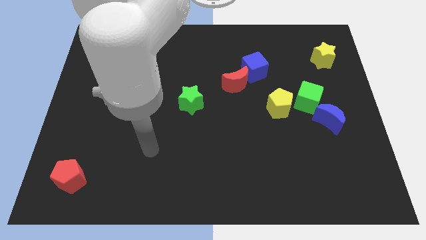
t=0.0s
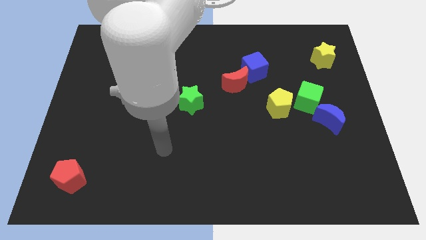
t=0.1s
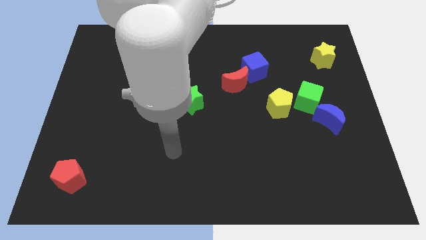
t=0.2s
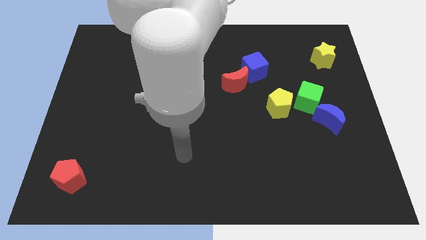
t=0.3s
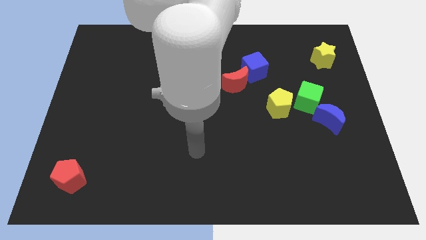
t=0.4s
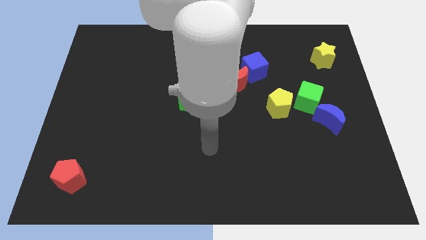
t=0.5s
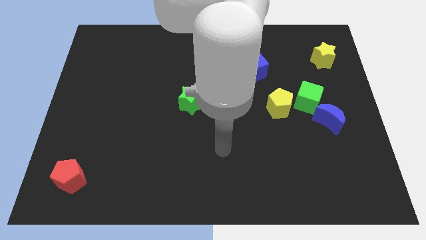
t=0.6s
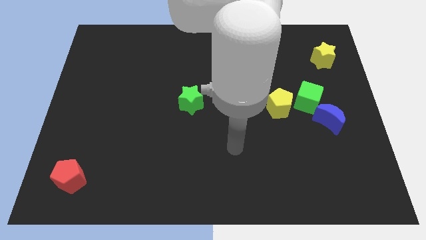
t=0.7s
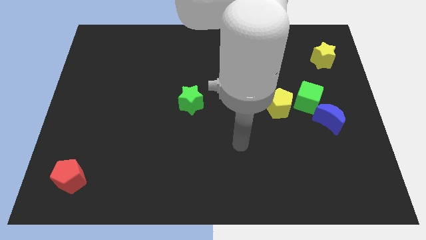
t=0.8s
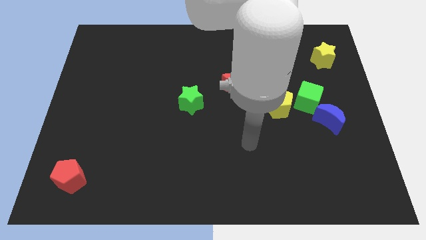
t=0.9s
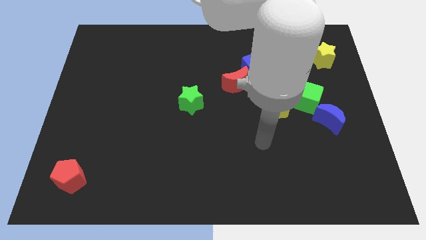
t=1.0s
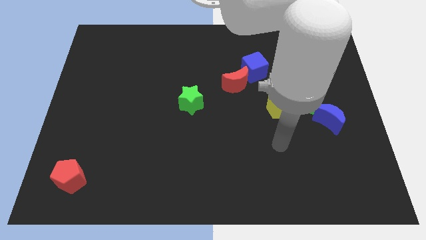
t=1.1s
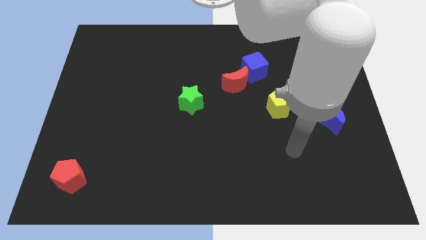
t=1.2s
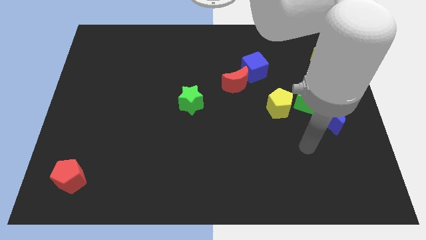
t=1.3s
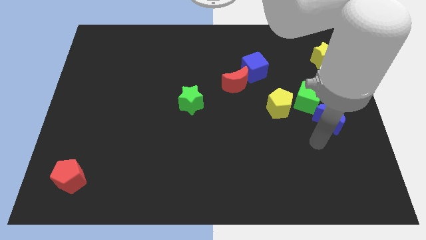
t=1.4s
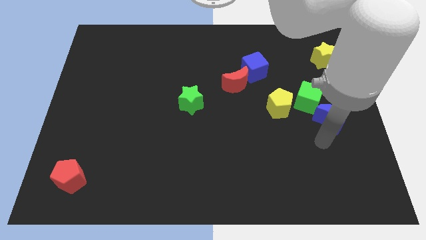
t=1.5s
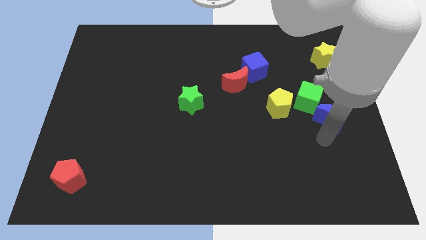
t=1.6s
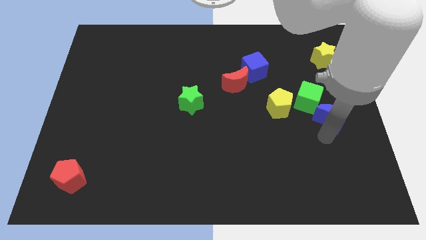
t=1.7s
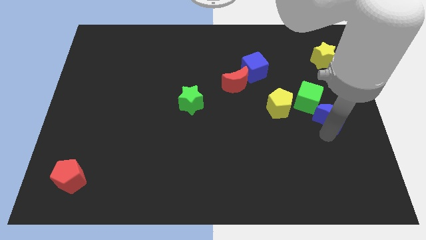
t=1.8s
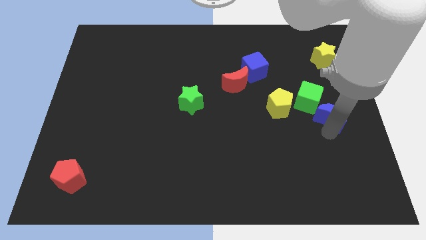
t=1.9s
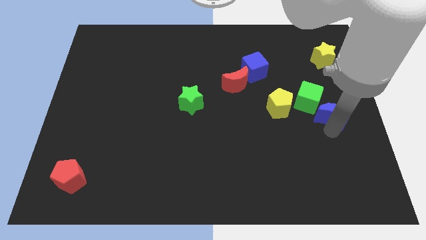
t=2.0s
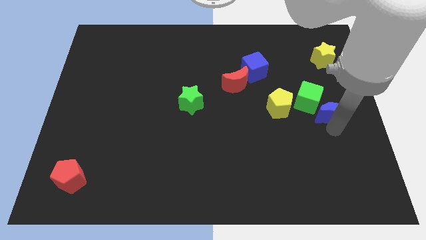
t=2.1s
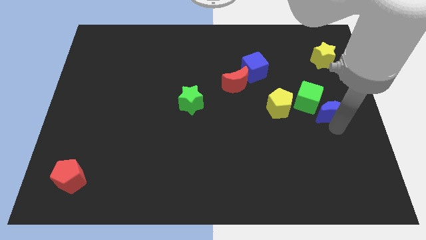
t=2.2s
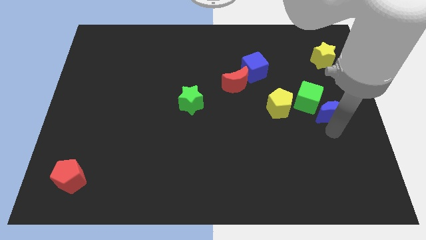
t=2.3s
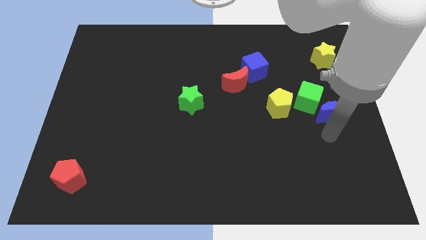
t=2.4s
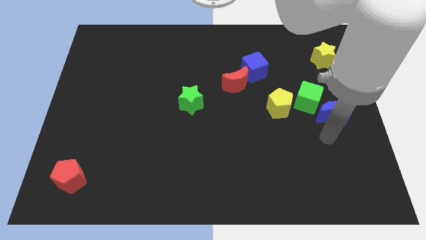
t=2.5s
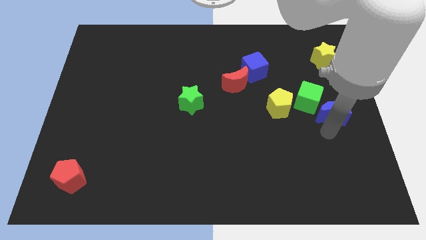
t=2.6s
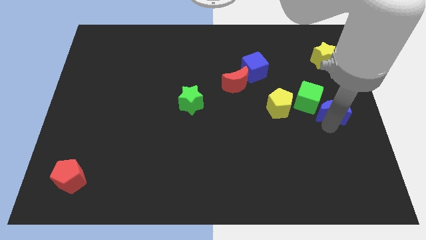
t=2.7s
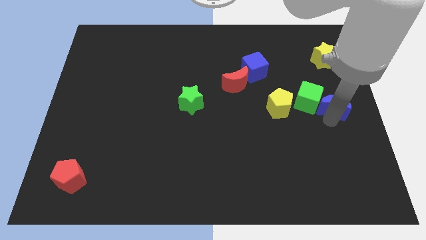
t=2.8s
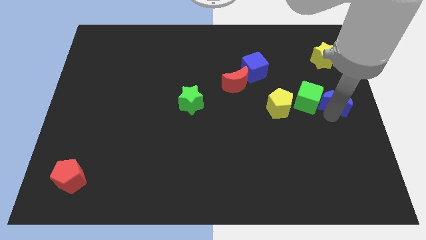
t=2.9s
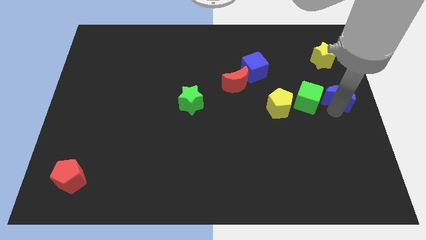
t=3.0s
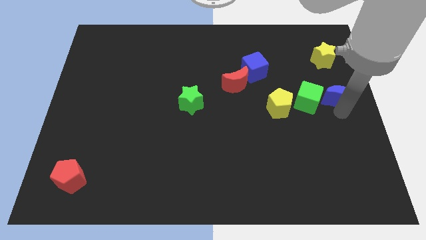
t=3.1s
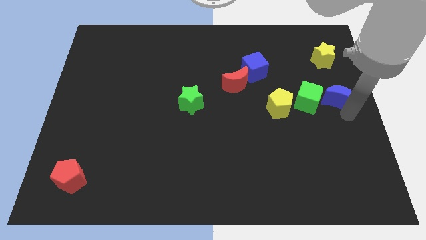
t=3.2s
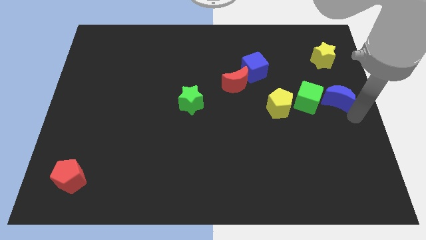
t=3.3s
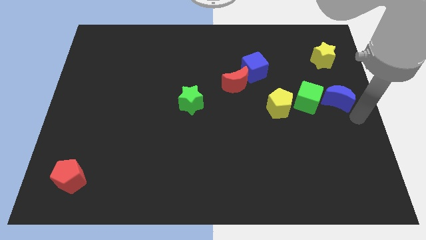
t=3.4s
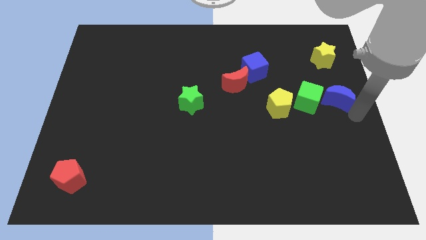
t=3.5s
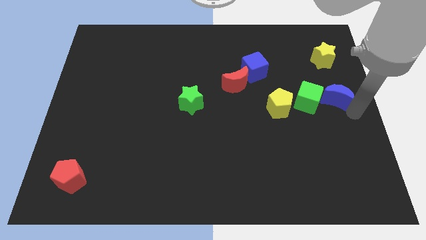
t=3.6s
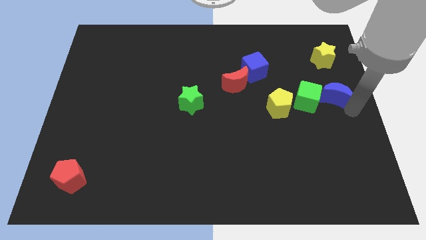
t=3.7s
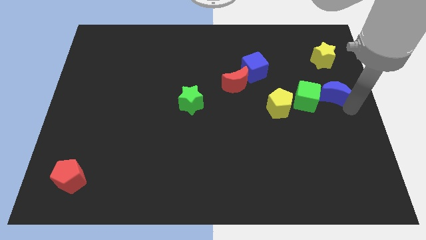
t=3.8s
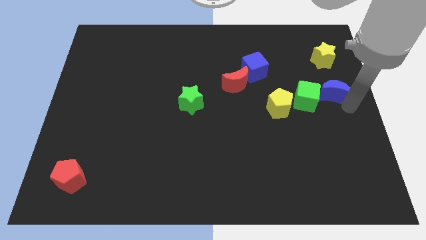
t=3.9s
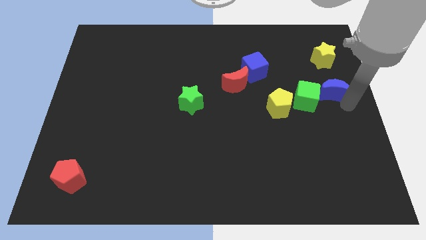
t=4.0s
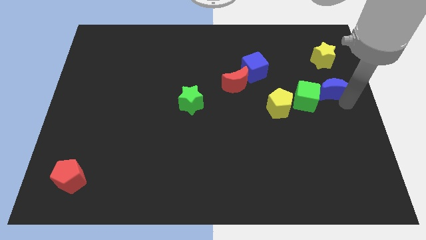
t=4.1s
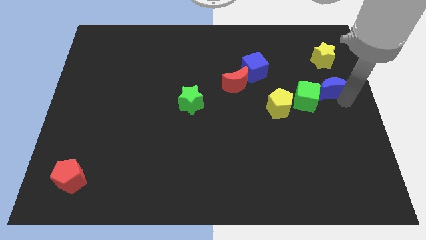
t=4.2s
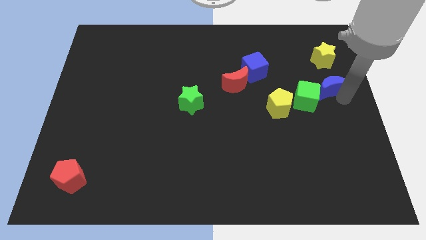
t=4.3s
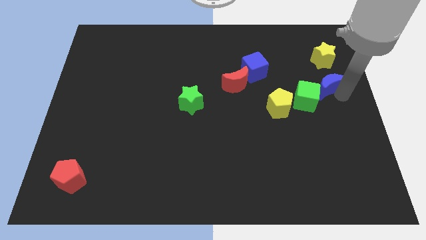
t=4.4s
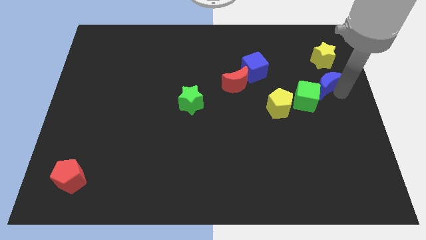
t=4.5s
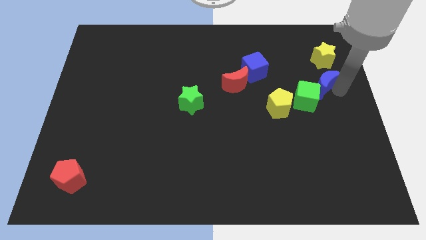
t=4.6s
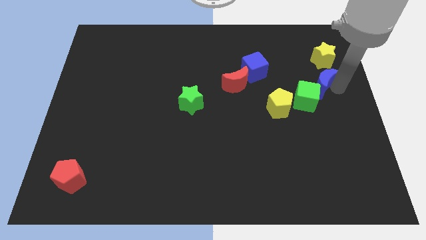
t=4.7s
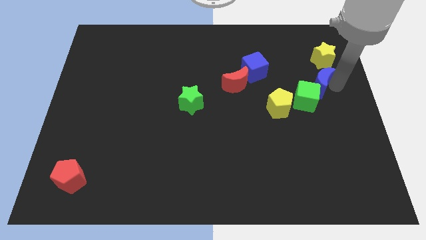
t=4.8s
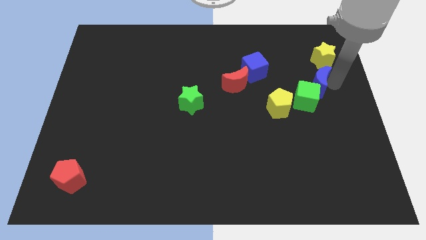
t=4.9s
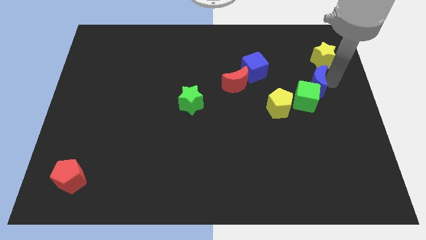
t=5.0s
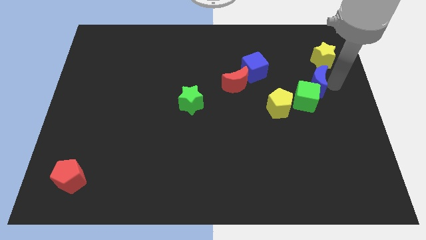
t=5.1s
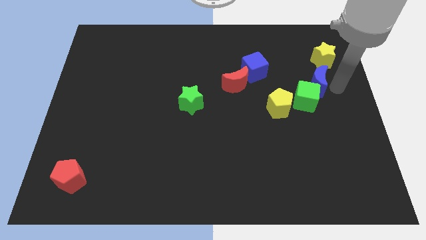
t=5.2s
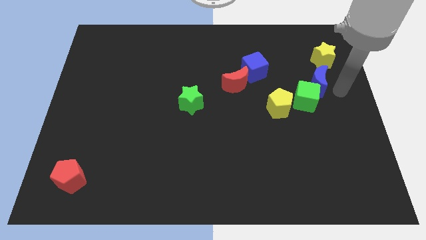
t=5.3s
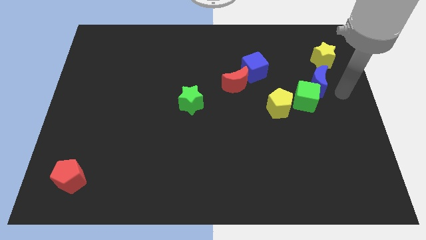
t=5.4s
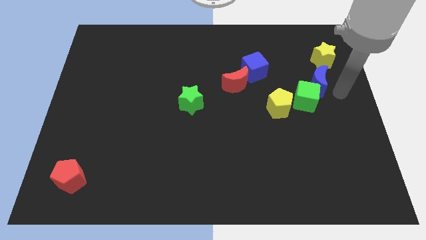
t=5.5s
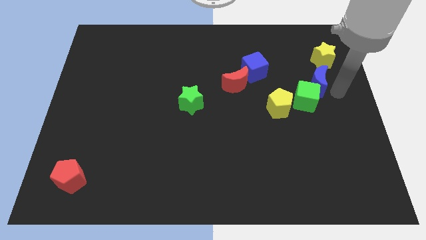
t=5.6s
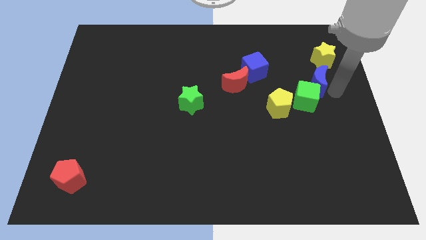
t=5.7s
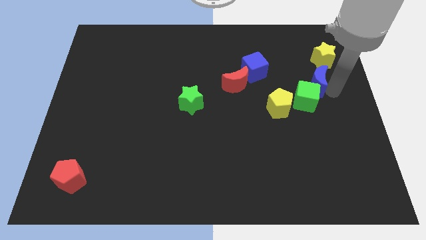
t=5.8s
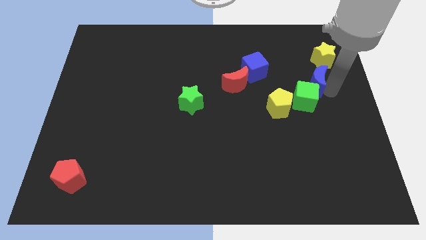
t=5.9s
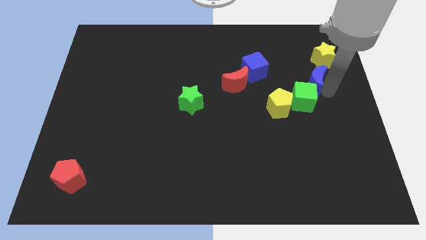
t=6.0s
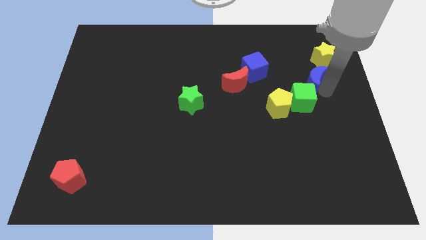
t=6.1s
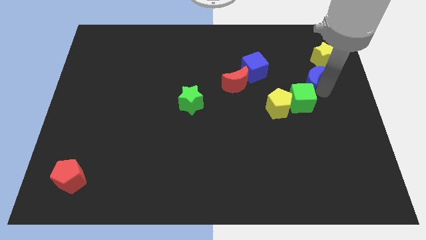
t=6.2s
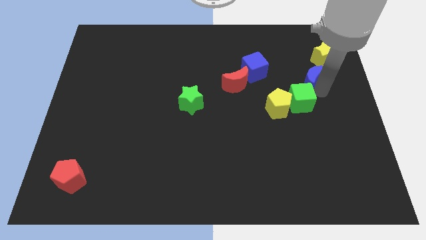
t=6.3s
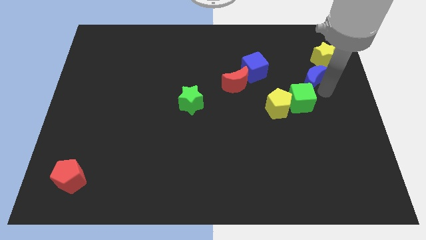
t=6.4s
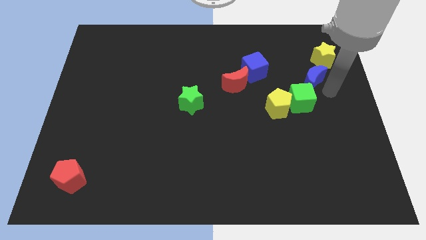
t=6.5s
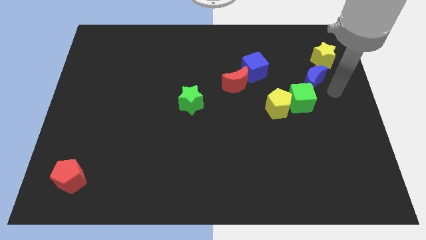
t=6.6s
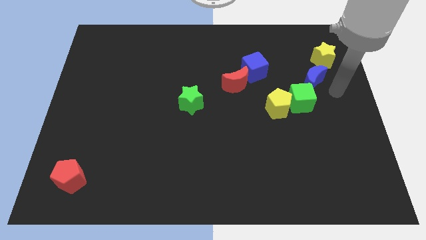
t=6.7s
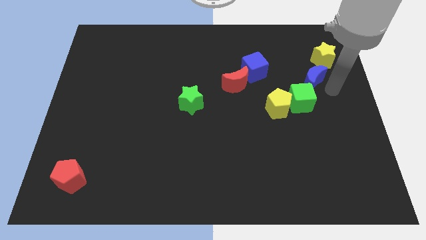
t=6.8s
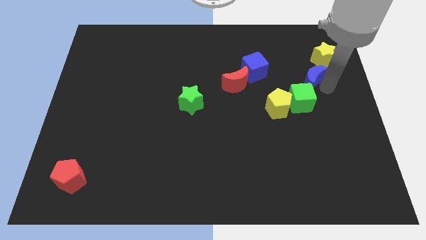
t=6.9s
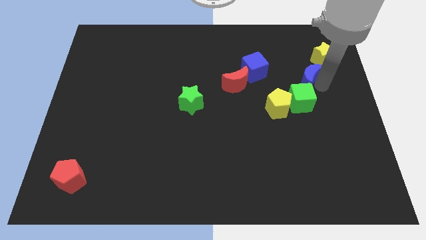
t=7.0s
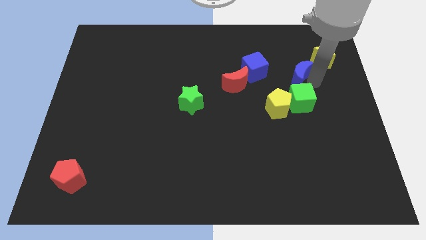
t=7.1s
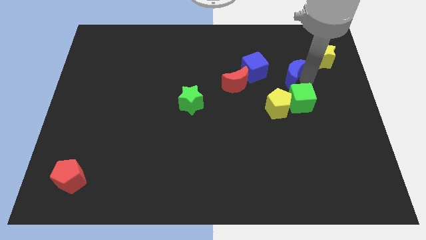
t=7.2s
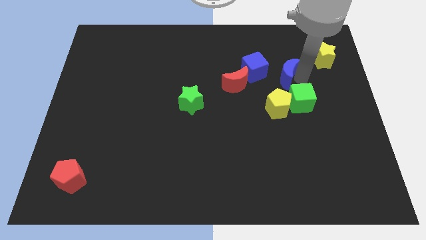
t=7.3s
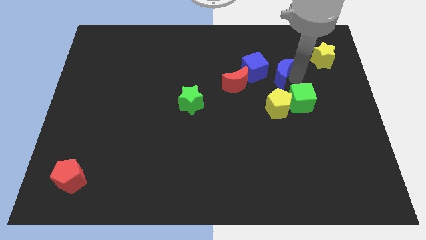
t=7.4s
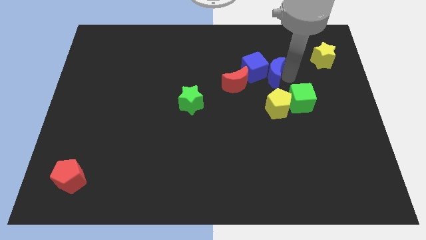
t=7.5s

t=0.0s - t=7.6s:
put the blue moon towards the blue cube
